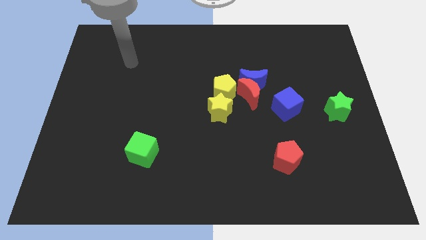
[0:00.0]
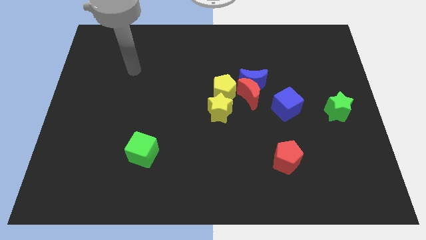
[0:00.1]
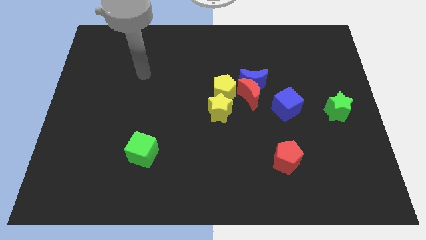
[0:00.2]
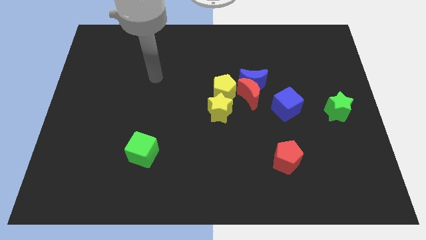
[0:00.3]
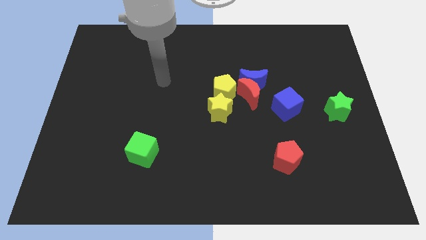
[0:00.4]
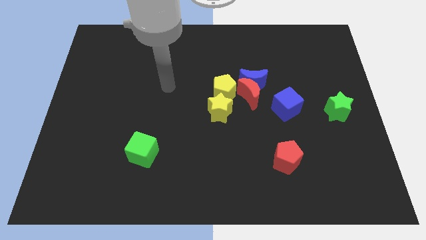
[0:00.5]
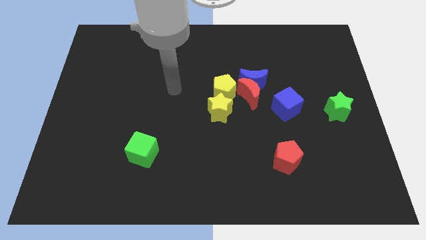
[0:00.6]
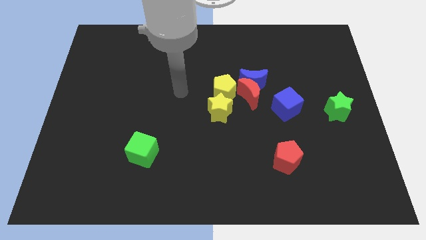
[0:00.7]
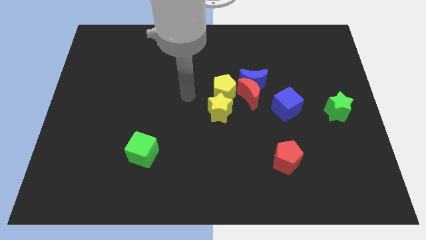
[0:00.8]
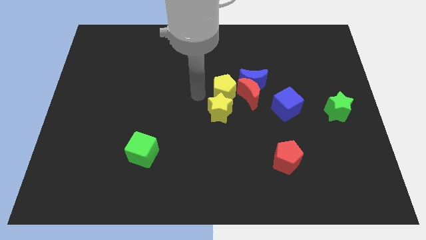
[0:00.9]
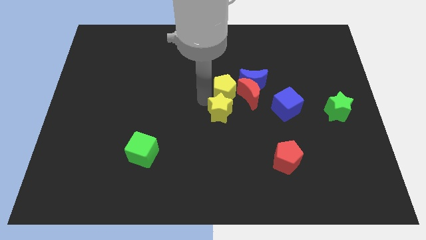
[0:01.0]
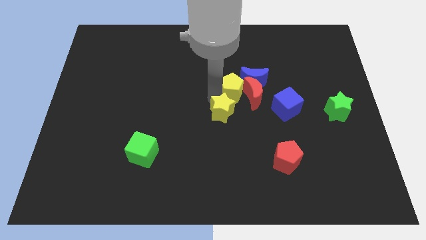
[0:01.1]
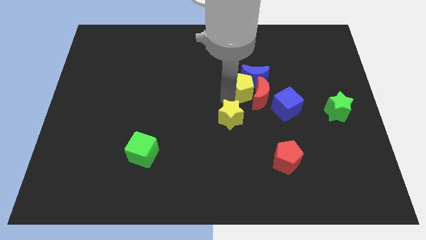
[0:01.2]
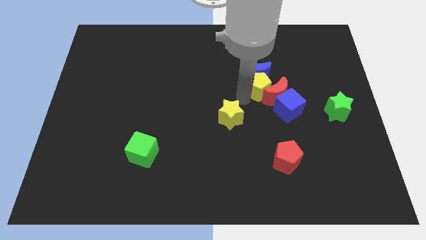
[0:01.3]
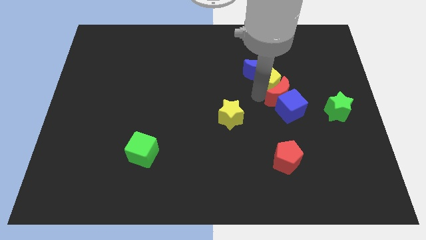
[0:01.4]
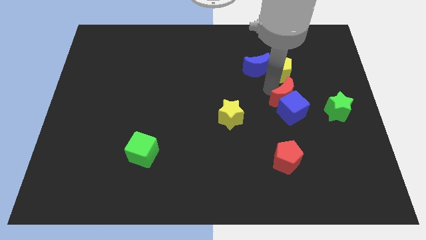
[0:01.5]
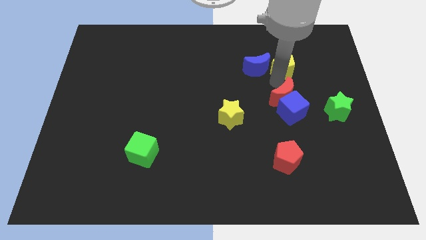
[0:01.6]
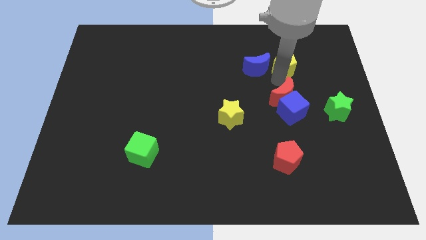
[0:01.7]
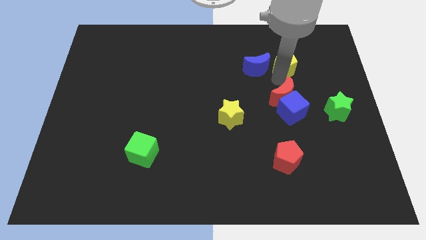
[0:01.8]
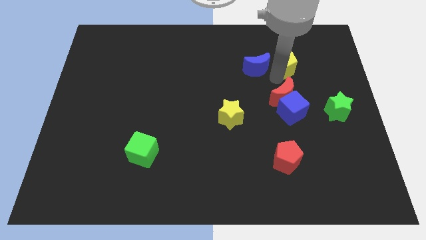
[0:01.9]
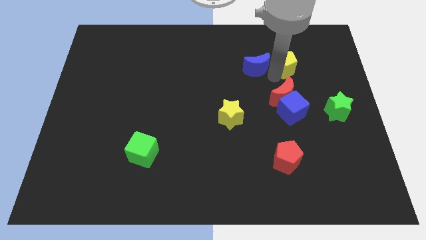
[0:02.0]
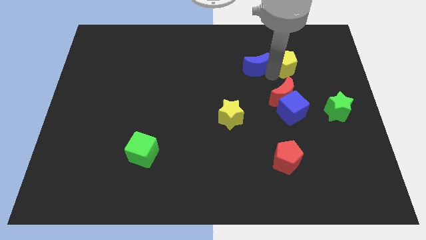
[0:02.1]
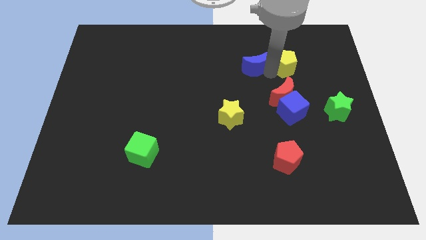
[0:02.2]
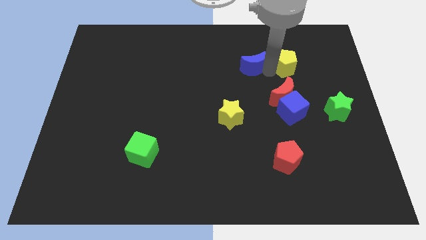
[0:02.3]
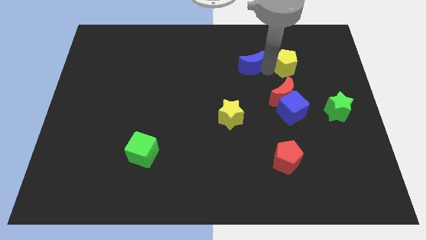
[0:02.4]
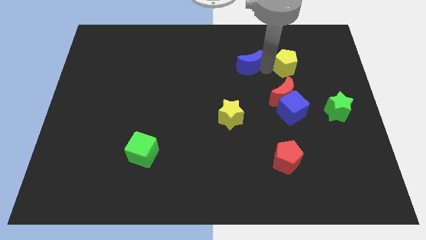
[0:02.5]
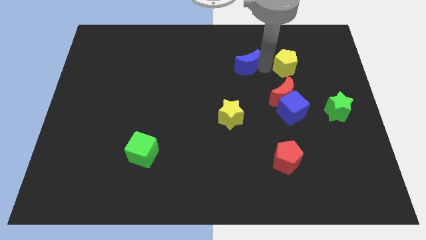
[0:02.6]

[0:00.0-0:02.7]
pull the blue moon apart from the red moon and yellow pentagon

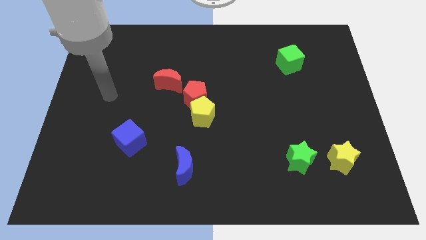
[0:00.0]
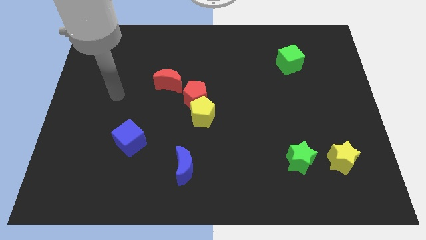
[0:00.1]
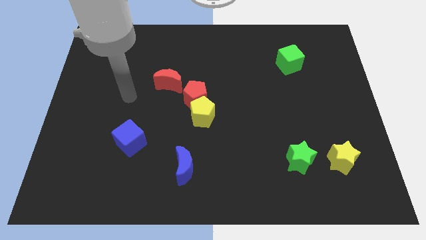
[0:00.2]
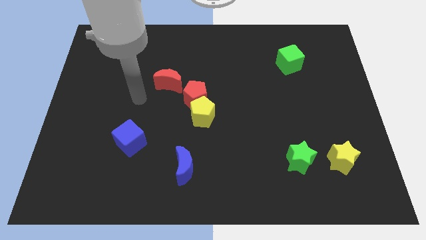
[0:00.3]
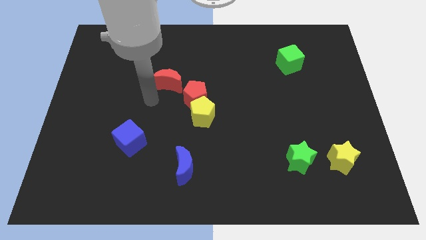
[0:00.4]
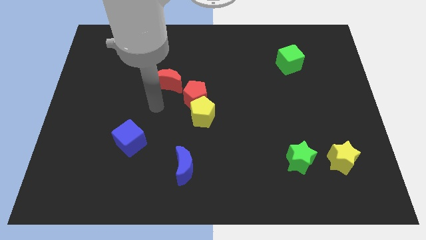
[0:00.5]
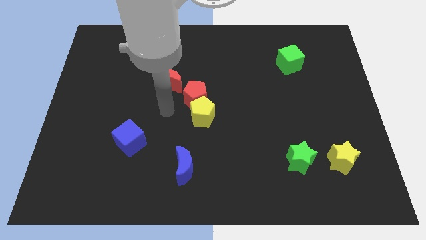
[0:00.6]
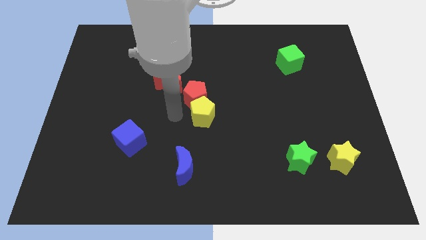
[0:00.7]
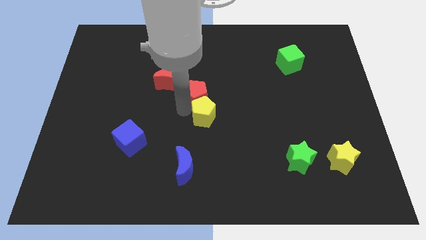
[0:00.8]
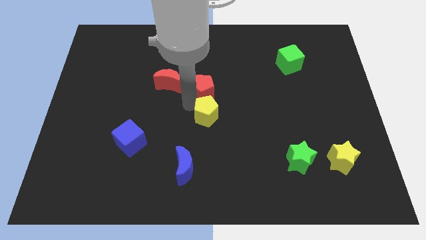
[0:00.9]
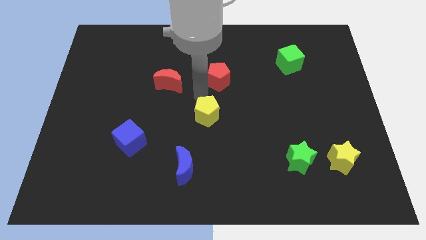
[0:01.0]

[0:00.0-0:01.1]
move the yellow pentagon away from the red pentagon

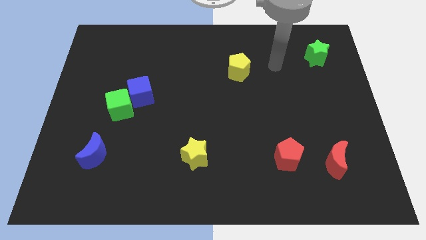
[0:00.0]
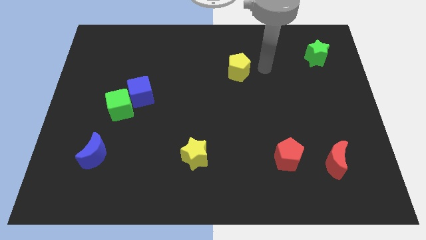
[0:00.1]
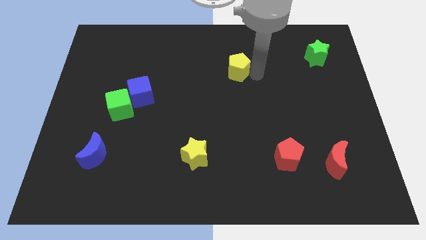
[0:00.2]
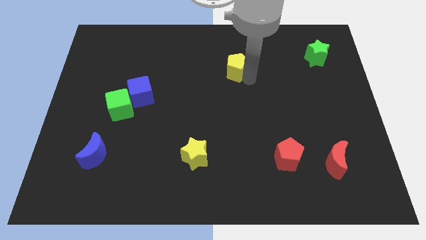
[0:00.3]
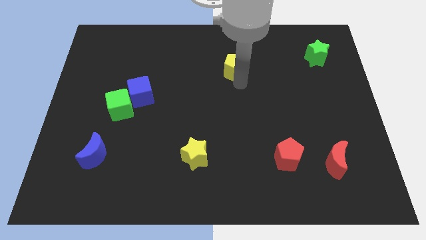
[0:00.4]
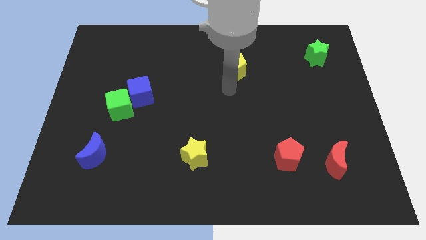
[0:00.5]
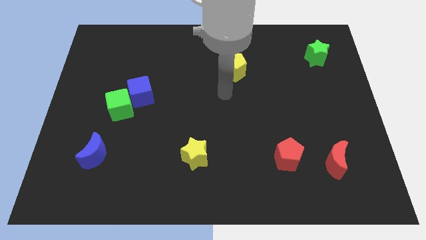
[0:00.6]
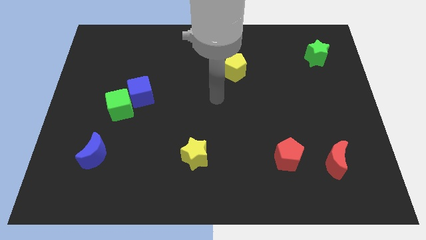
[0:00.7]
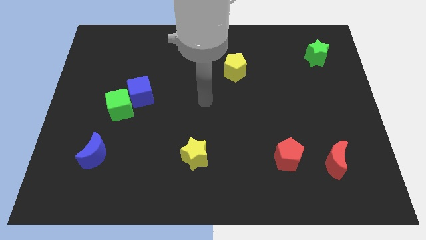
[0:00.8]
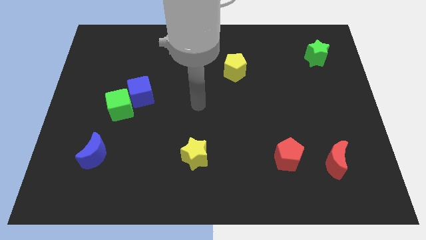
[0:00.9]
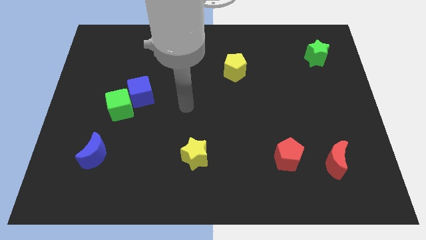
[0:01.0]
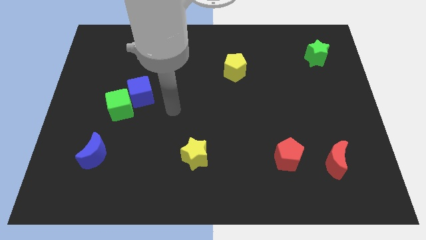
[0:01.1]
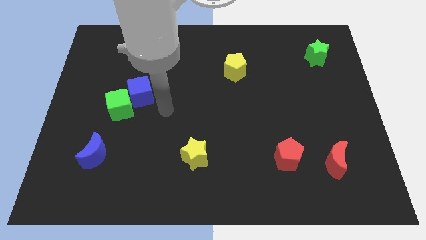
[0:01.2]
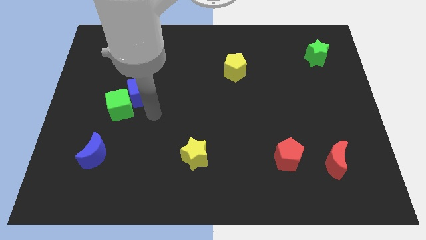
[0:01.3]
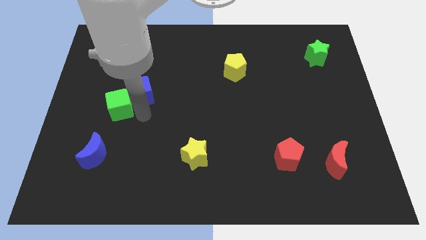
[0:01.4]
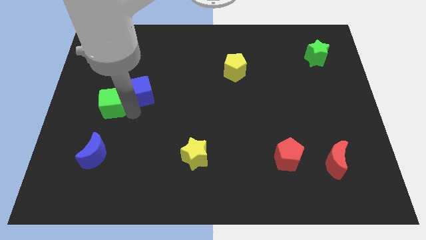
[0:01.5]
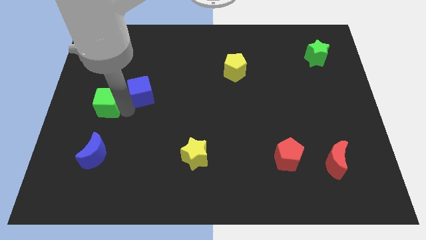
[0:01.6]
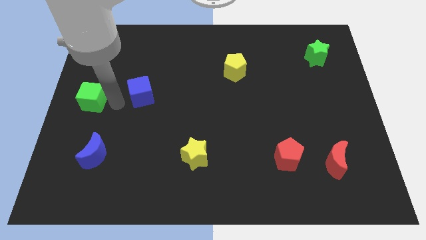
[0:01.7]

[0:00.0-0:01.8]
separate the blue cube from the green cube

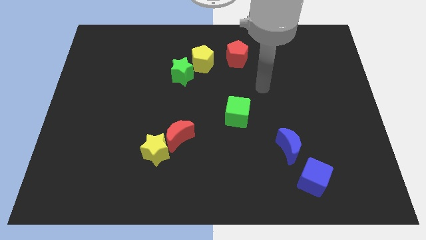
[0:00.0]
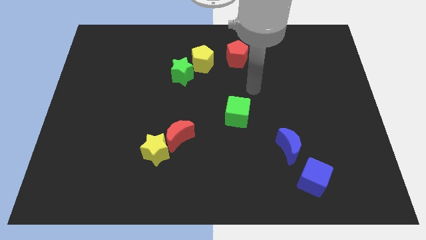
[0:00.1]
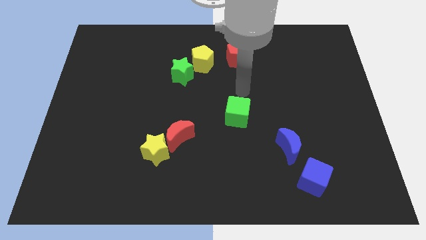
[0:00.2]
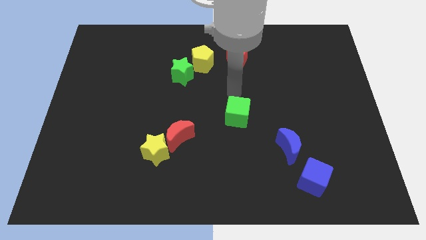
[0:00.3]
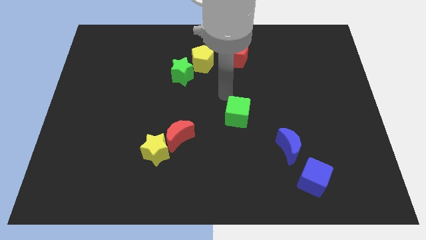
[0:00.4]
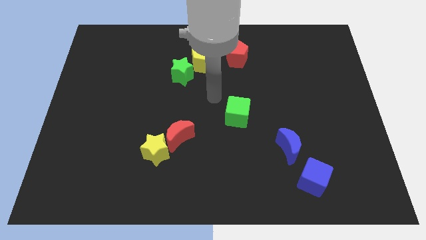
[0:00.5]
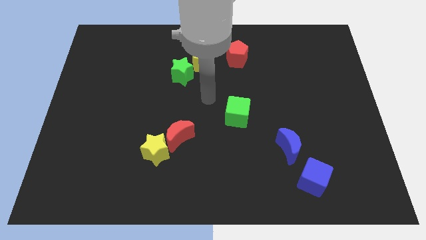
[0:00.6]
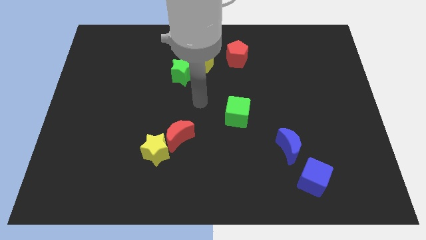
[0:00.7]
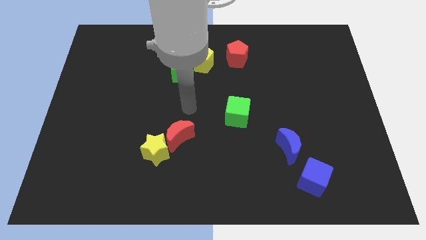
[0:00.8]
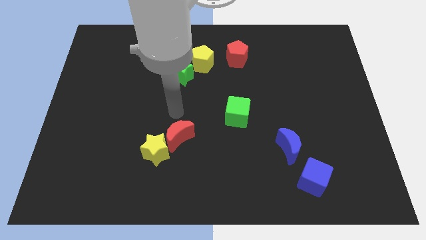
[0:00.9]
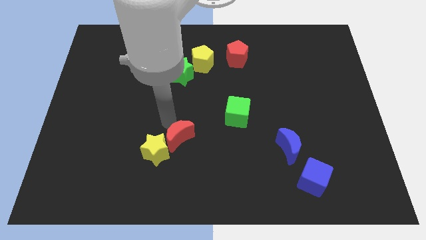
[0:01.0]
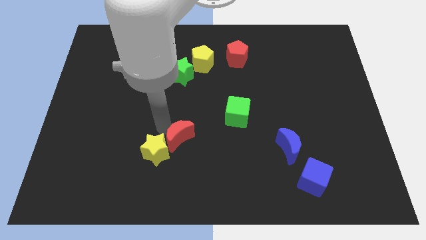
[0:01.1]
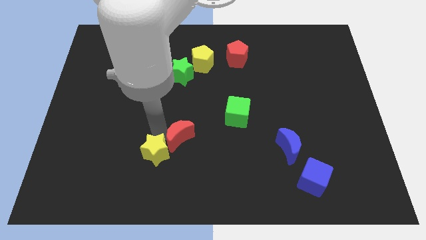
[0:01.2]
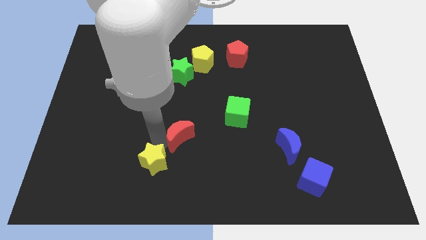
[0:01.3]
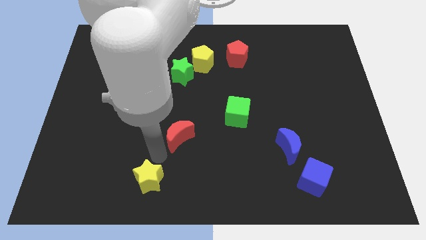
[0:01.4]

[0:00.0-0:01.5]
separate the red moon from the yellow star

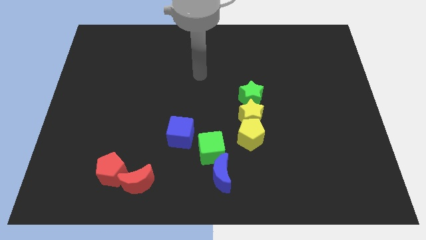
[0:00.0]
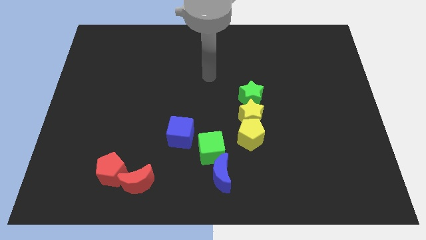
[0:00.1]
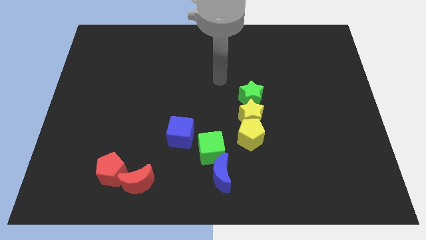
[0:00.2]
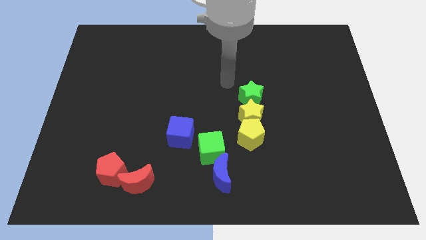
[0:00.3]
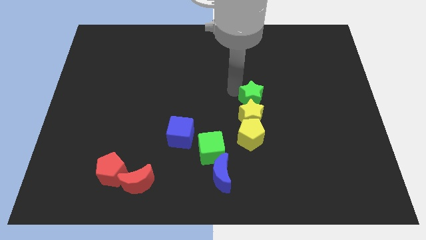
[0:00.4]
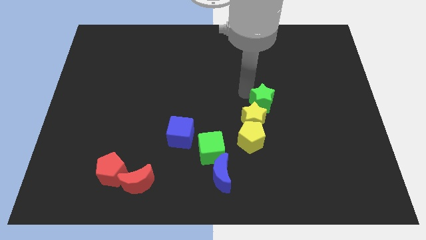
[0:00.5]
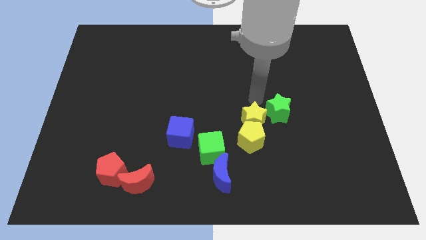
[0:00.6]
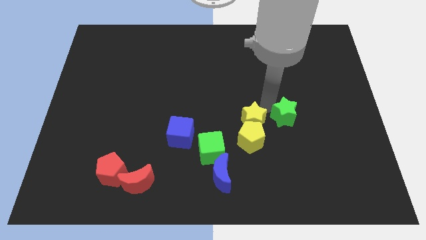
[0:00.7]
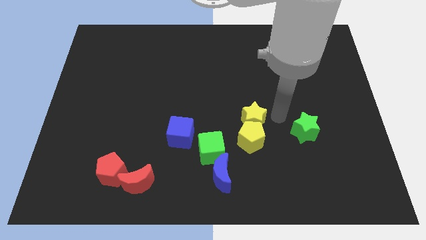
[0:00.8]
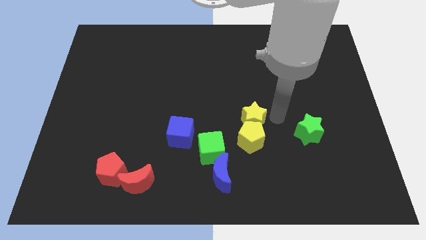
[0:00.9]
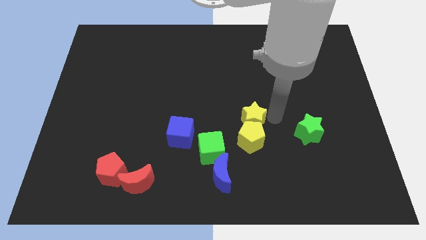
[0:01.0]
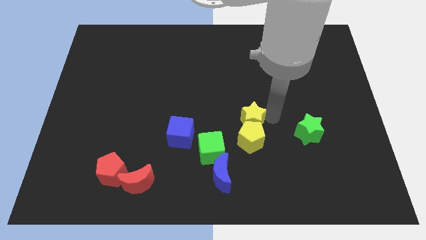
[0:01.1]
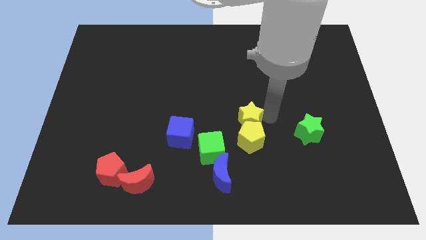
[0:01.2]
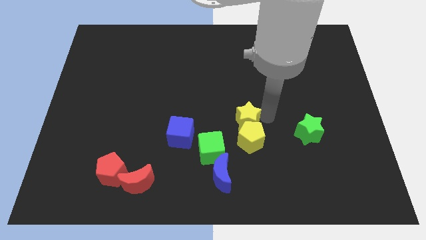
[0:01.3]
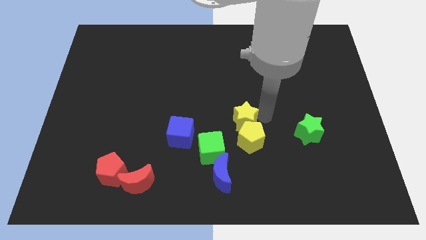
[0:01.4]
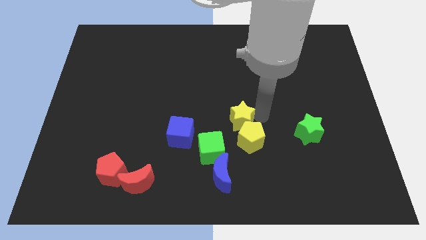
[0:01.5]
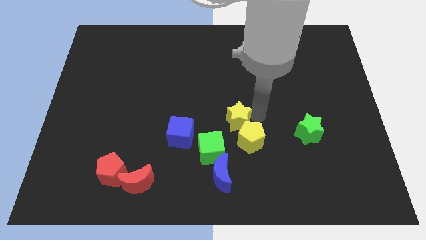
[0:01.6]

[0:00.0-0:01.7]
move the yellow star away from the yellow pentagon and green star

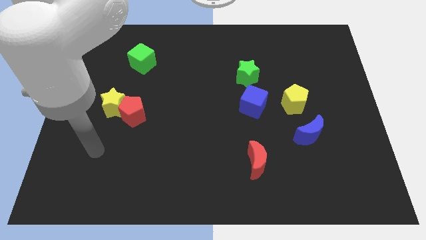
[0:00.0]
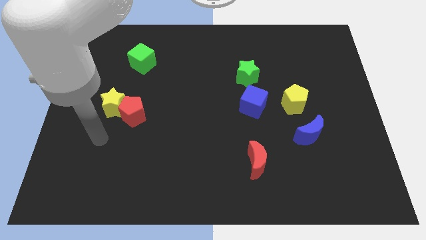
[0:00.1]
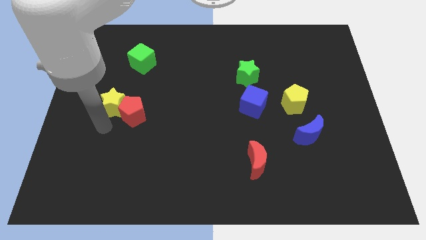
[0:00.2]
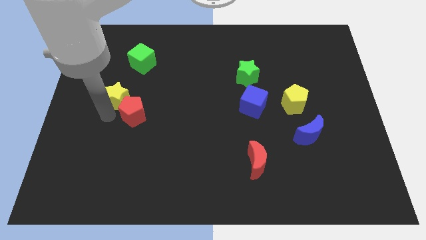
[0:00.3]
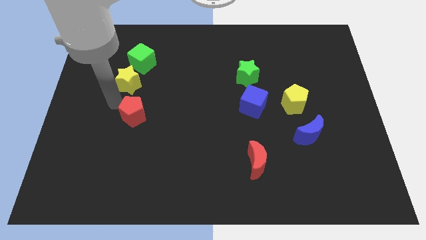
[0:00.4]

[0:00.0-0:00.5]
separate the red pentagon from the yellow star

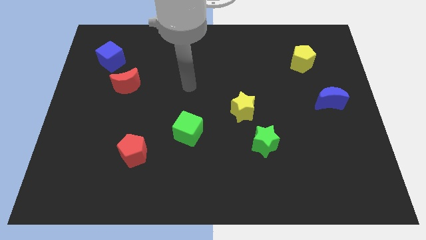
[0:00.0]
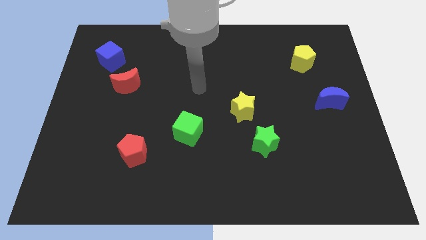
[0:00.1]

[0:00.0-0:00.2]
move the green star away from the yellow star
